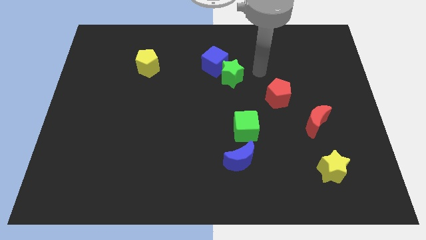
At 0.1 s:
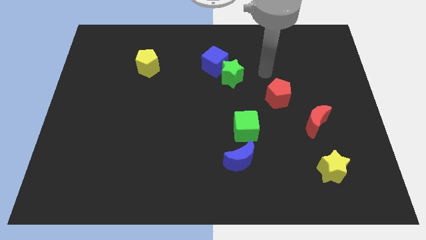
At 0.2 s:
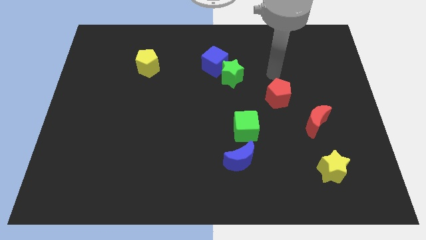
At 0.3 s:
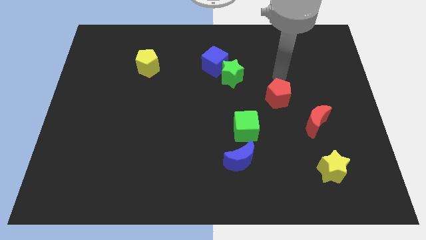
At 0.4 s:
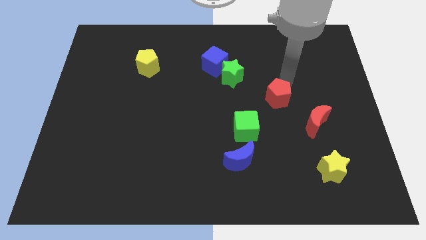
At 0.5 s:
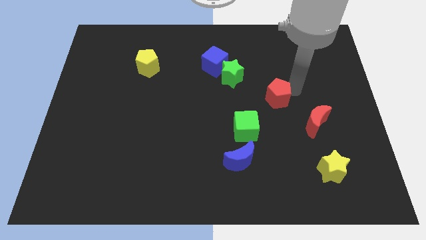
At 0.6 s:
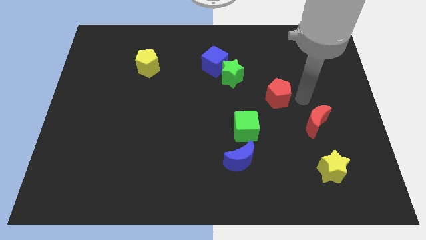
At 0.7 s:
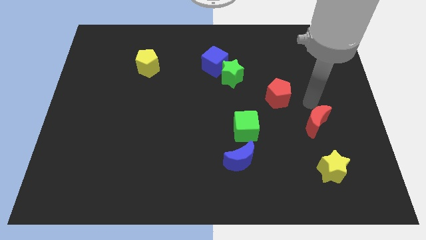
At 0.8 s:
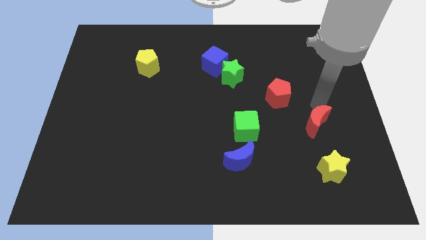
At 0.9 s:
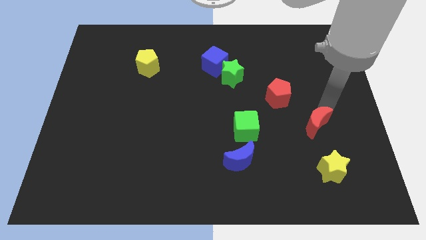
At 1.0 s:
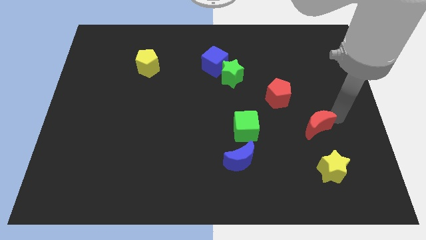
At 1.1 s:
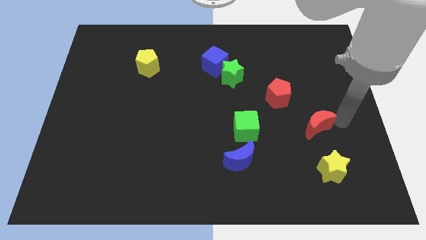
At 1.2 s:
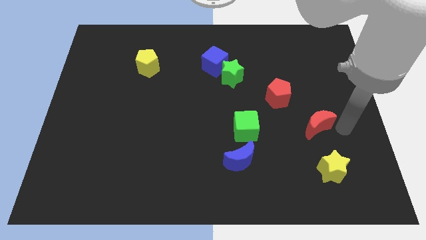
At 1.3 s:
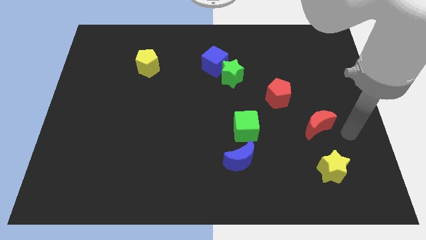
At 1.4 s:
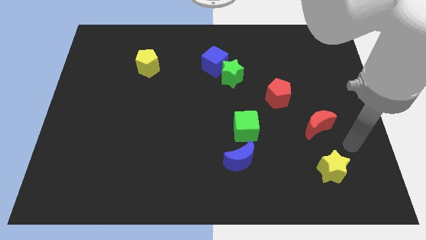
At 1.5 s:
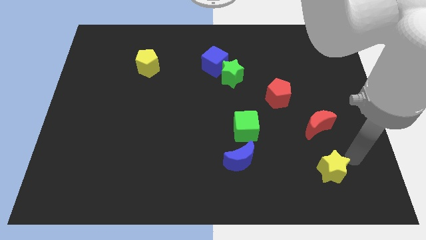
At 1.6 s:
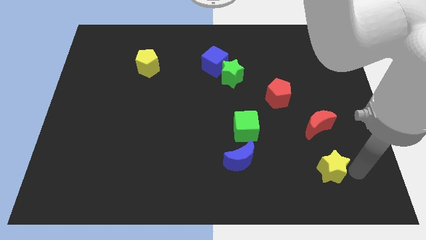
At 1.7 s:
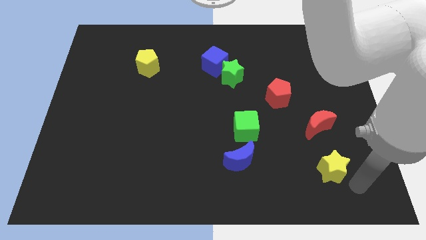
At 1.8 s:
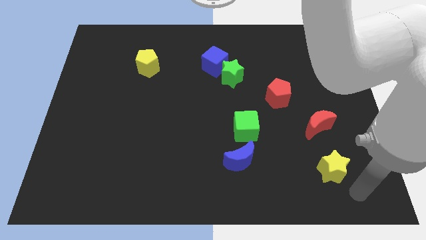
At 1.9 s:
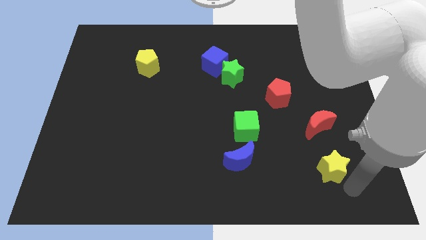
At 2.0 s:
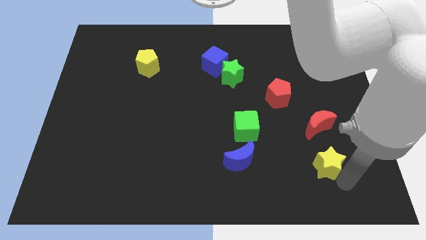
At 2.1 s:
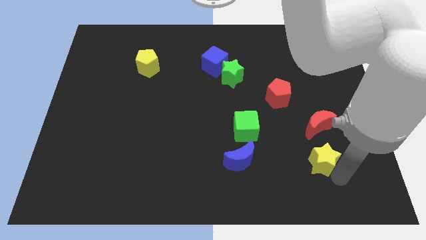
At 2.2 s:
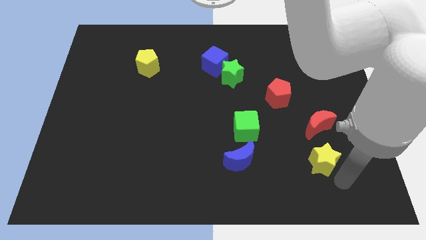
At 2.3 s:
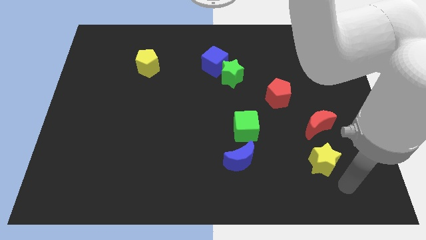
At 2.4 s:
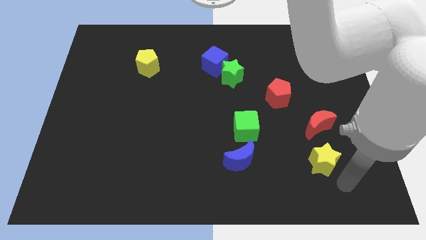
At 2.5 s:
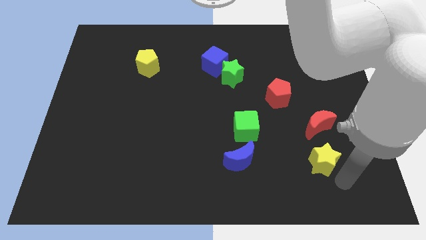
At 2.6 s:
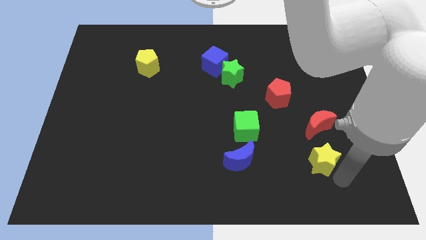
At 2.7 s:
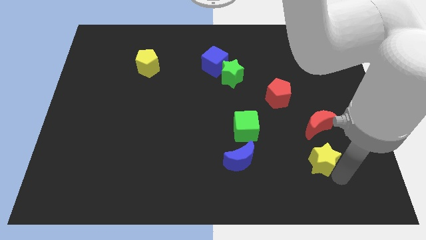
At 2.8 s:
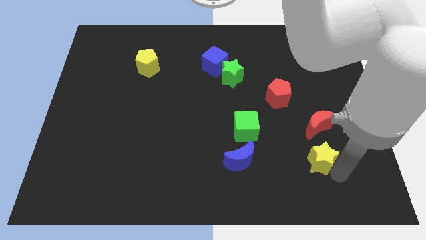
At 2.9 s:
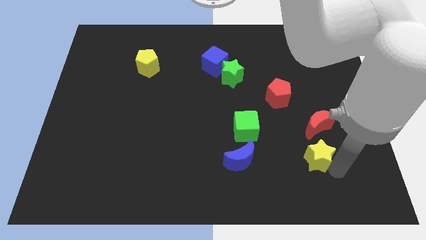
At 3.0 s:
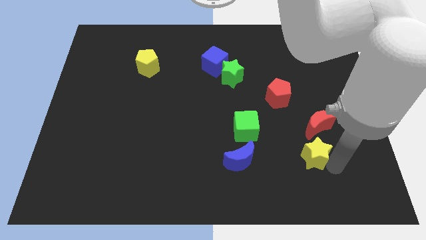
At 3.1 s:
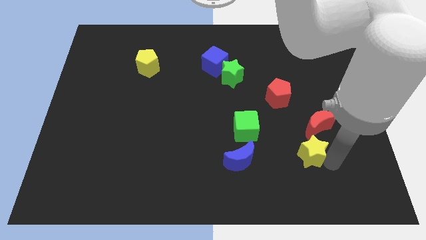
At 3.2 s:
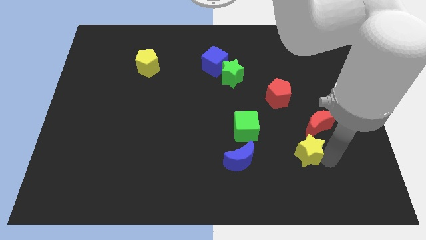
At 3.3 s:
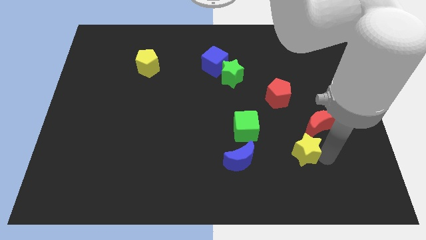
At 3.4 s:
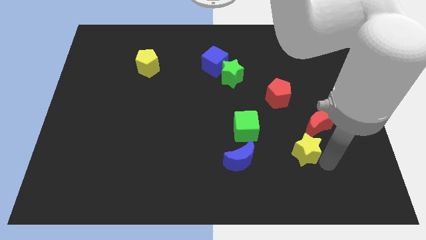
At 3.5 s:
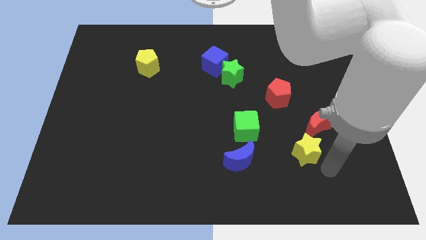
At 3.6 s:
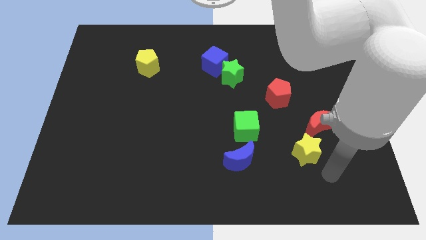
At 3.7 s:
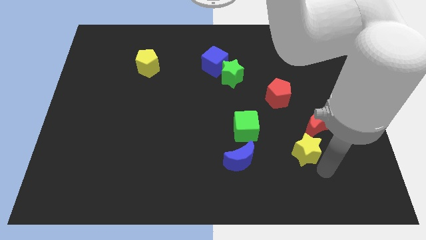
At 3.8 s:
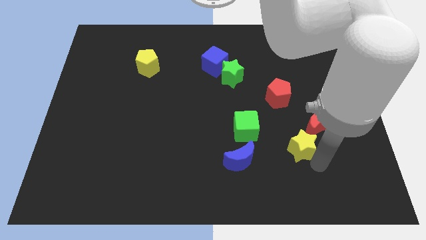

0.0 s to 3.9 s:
slightly push the yellow star up and then to the left

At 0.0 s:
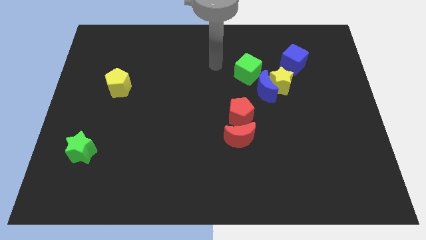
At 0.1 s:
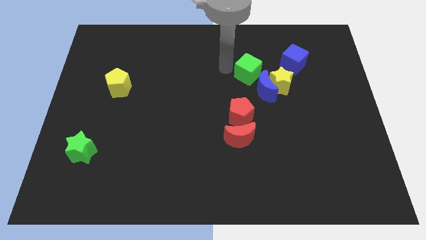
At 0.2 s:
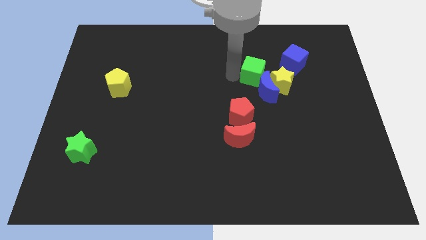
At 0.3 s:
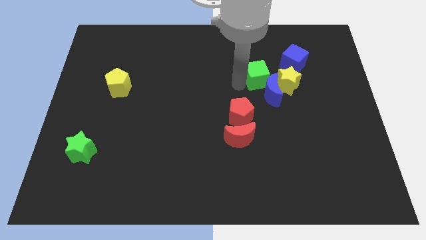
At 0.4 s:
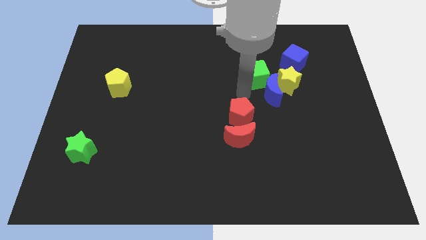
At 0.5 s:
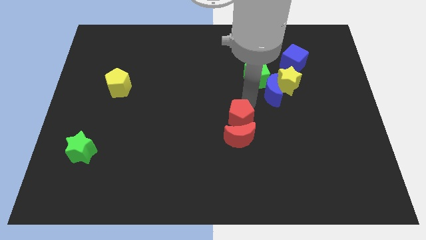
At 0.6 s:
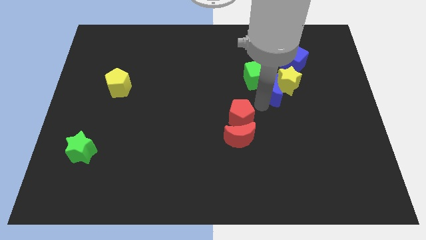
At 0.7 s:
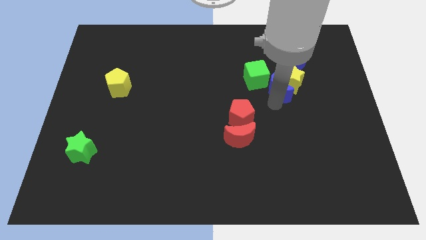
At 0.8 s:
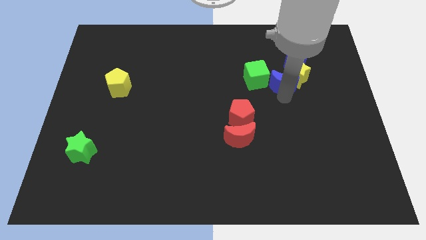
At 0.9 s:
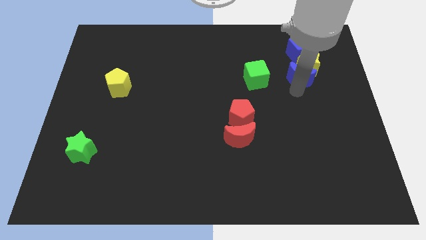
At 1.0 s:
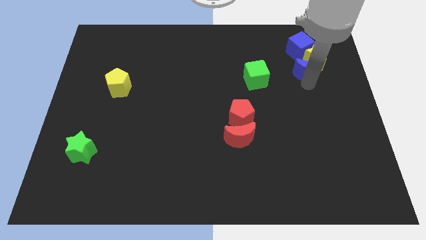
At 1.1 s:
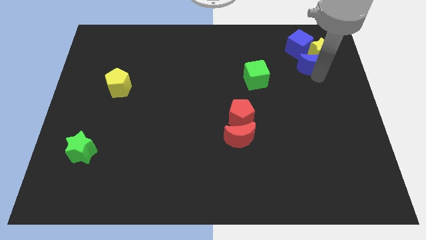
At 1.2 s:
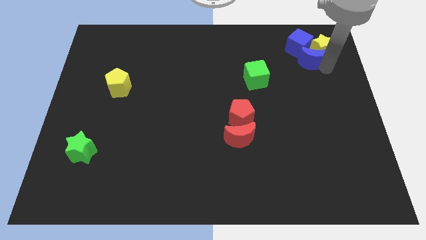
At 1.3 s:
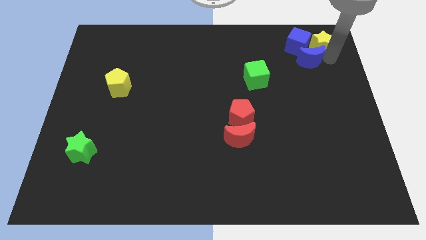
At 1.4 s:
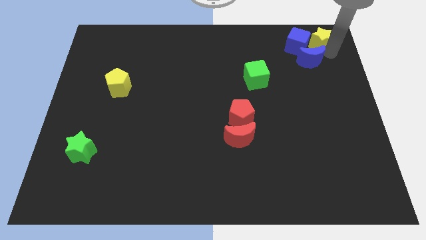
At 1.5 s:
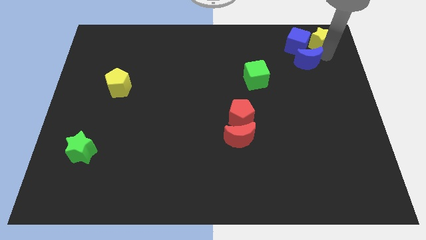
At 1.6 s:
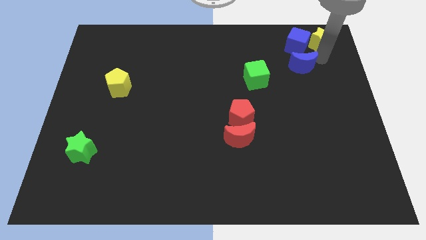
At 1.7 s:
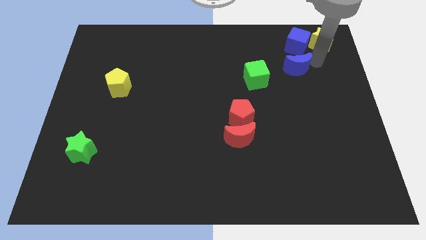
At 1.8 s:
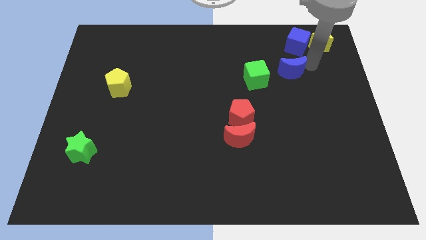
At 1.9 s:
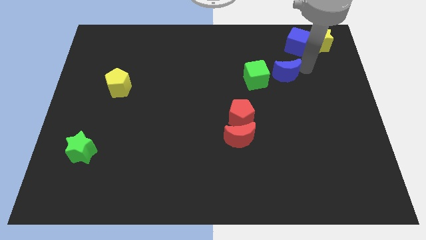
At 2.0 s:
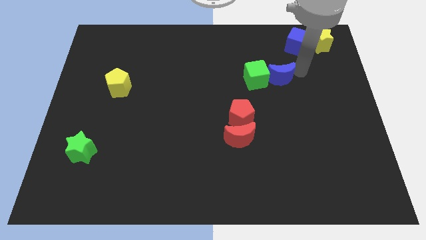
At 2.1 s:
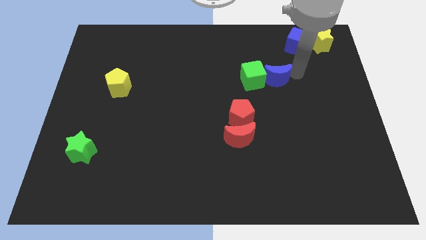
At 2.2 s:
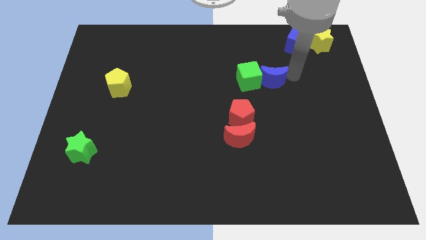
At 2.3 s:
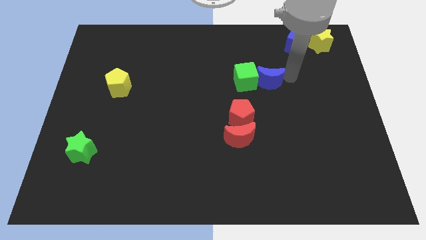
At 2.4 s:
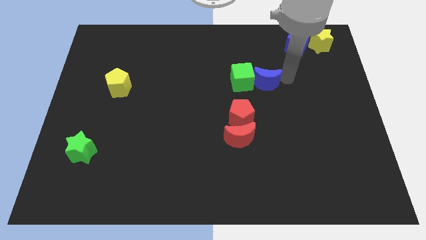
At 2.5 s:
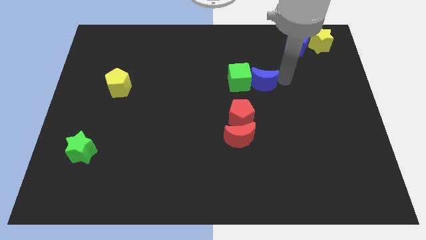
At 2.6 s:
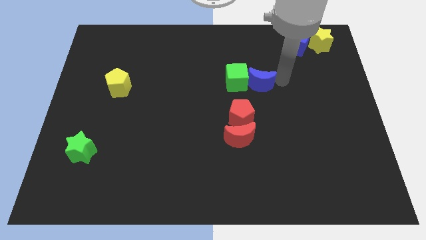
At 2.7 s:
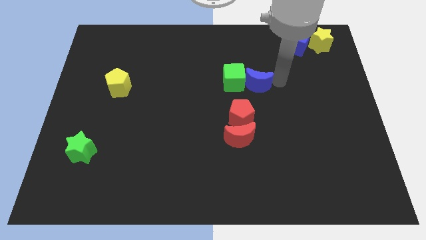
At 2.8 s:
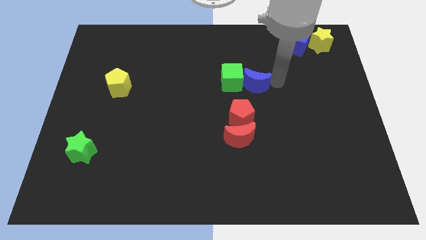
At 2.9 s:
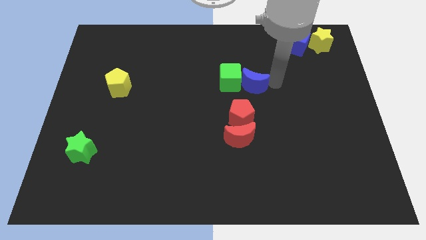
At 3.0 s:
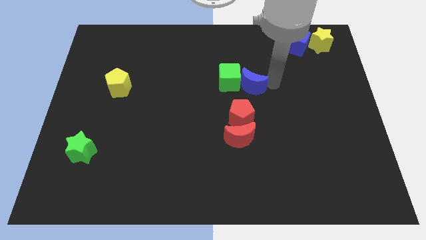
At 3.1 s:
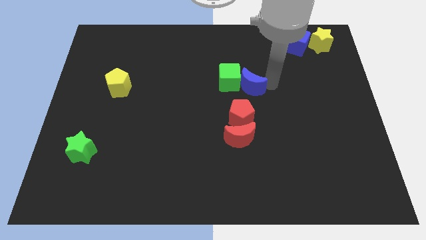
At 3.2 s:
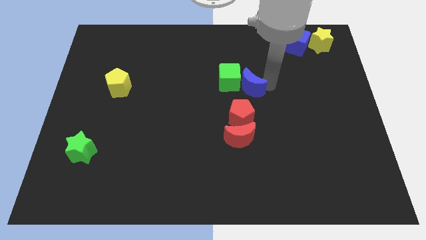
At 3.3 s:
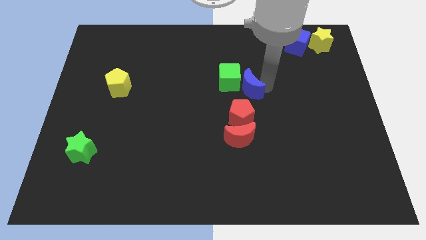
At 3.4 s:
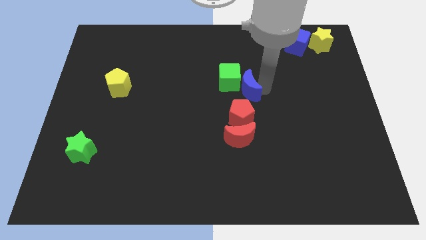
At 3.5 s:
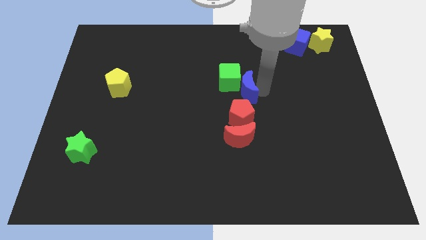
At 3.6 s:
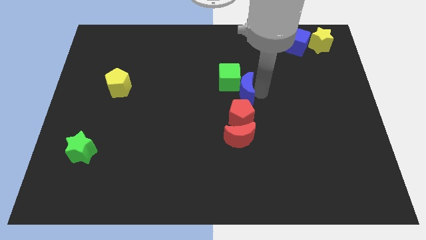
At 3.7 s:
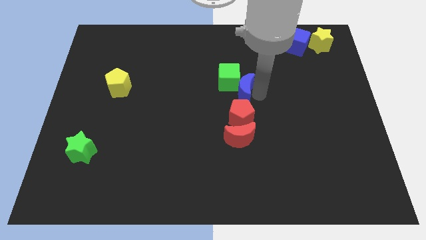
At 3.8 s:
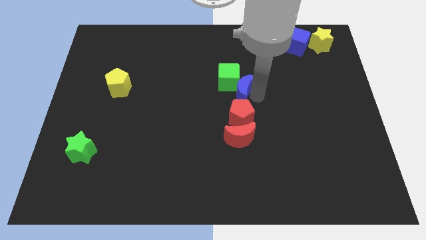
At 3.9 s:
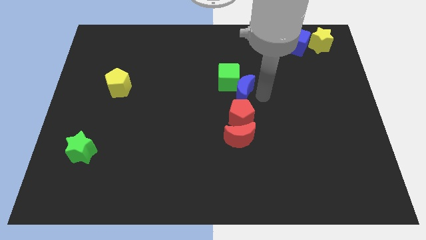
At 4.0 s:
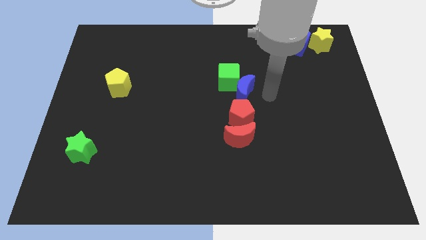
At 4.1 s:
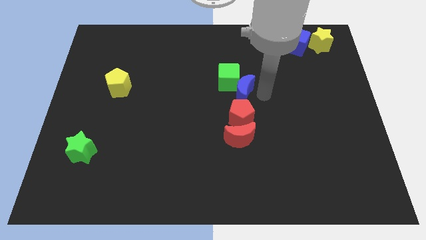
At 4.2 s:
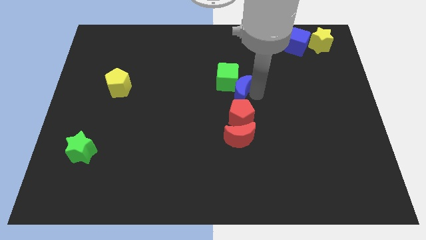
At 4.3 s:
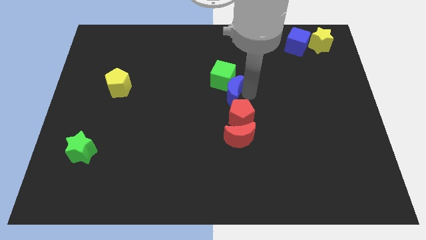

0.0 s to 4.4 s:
slightly push the blue moon to the left
